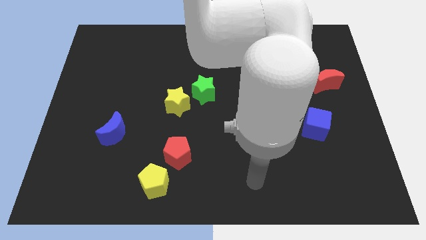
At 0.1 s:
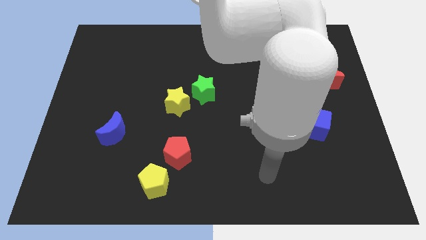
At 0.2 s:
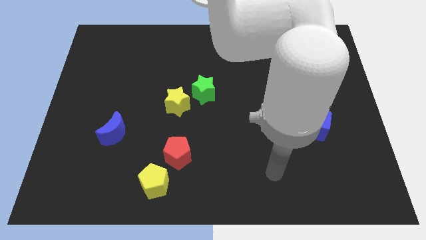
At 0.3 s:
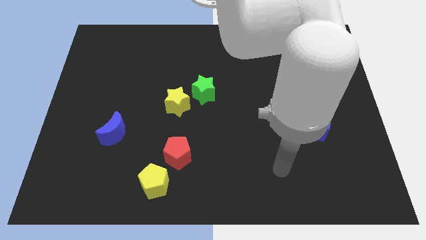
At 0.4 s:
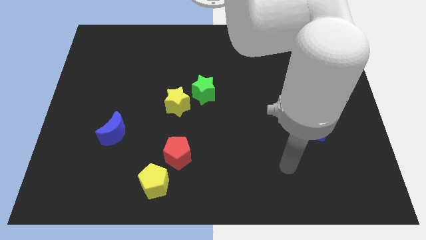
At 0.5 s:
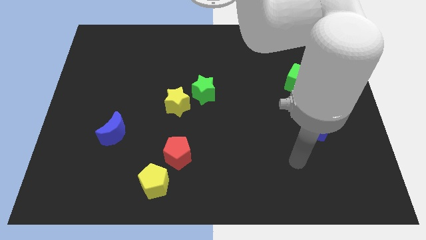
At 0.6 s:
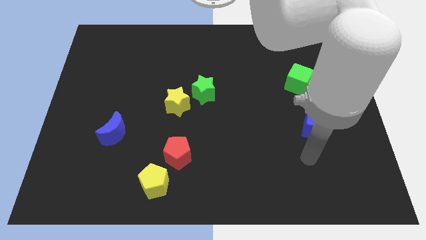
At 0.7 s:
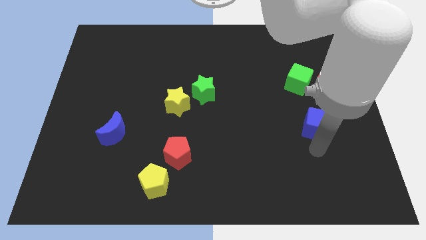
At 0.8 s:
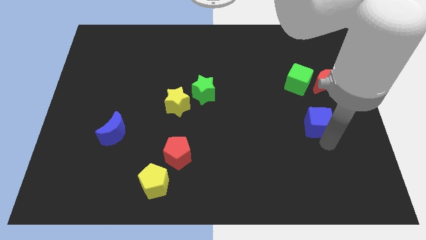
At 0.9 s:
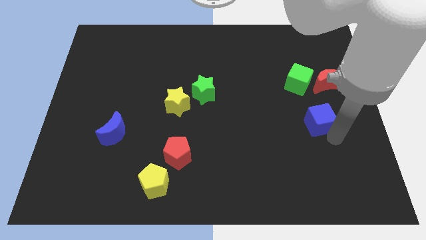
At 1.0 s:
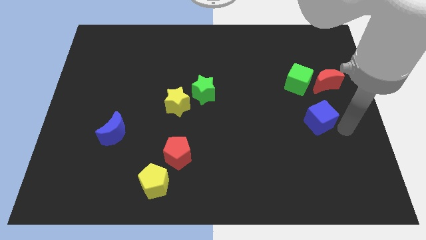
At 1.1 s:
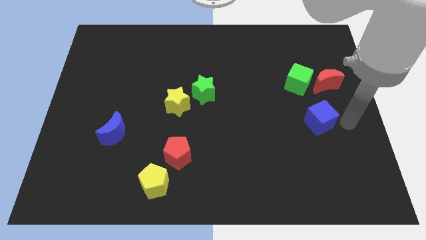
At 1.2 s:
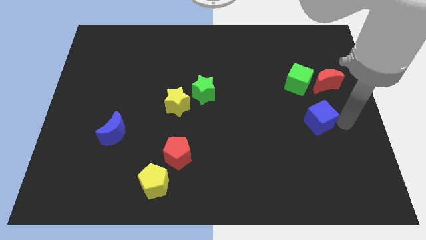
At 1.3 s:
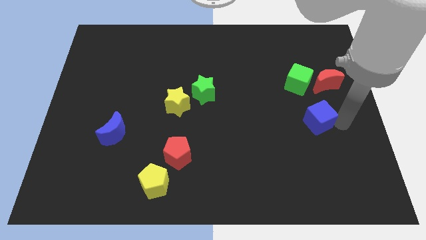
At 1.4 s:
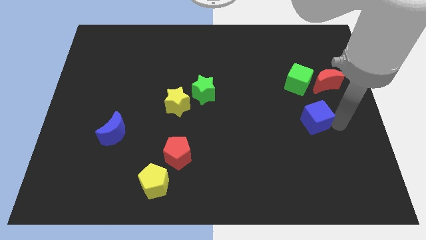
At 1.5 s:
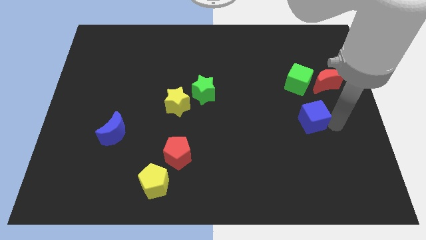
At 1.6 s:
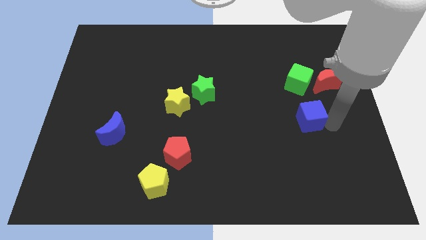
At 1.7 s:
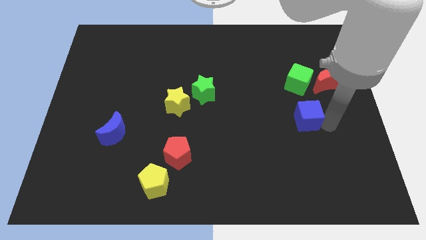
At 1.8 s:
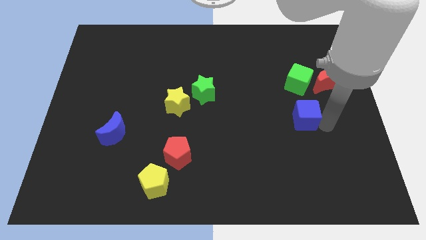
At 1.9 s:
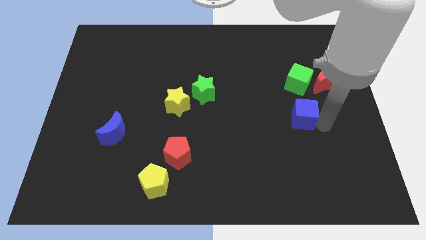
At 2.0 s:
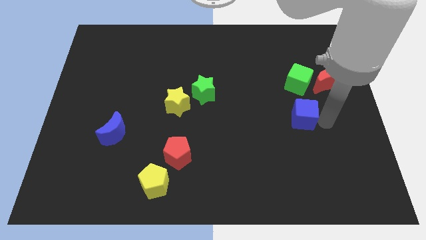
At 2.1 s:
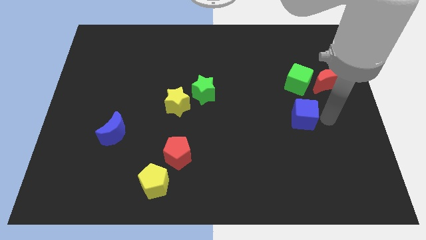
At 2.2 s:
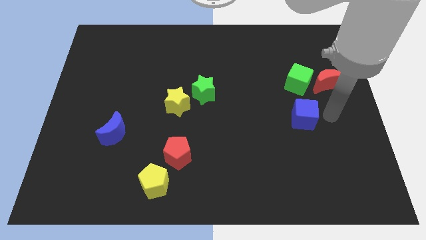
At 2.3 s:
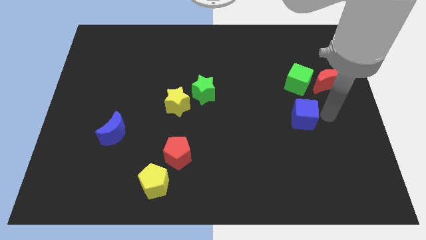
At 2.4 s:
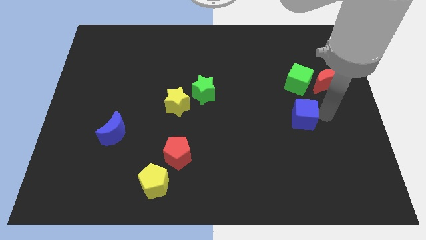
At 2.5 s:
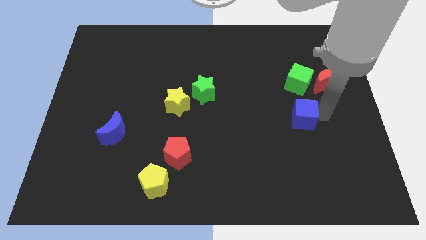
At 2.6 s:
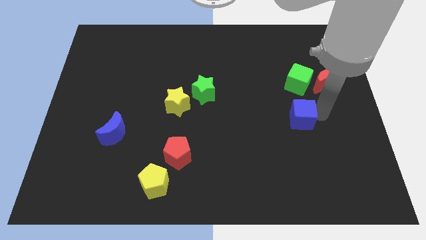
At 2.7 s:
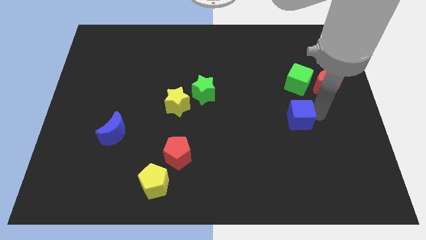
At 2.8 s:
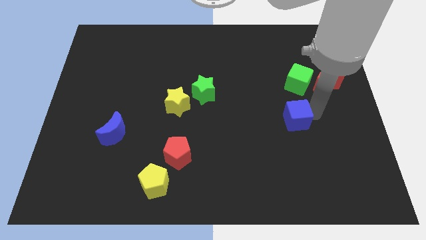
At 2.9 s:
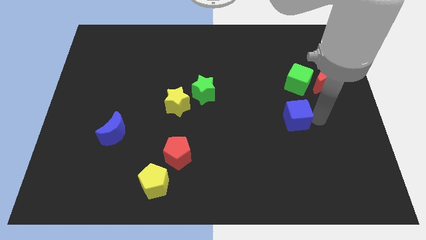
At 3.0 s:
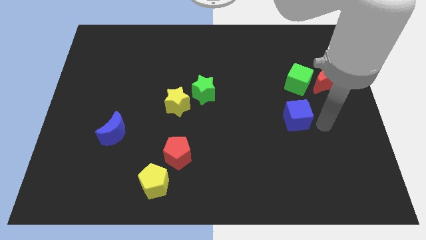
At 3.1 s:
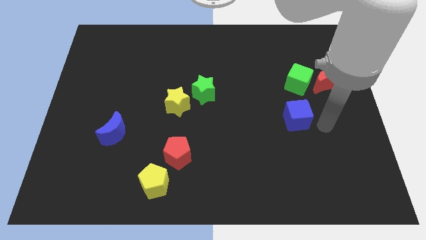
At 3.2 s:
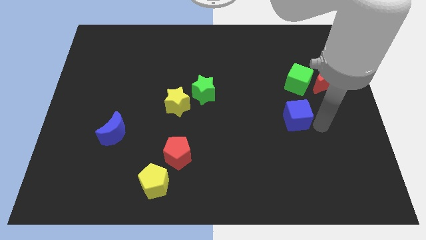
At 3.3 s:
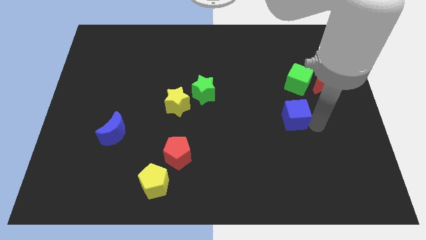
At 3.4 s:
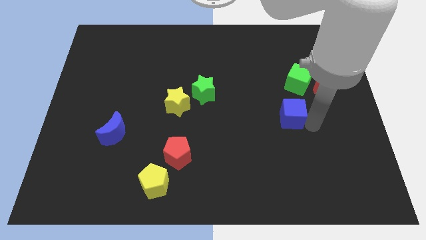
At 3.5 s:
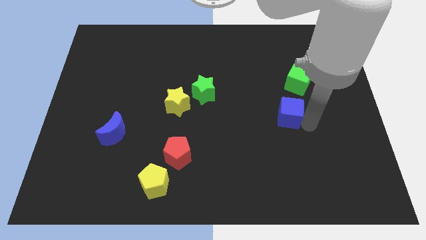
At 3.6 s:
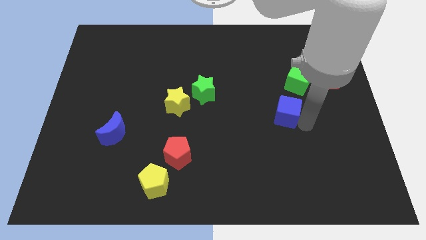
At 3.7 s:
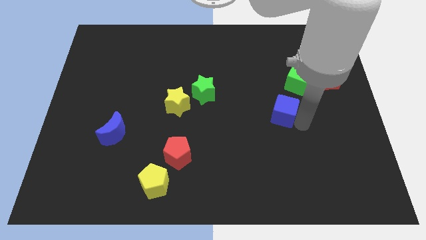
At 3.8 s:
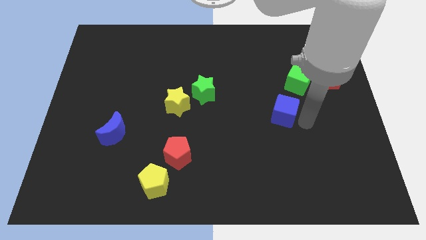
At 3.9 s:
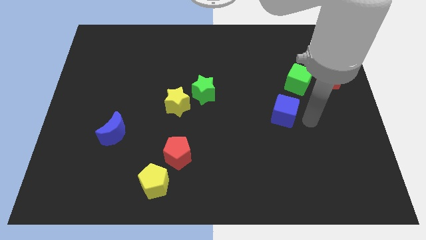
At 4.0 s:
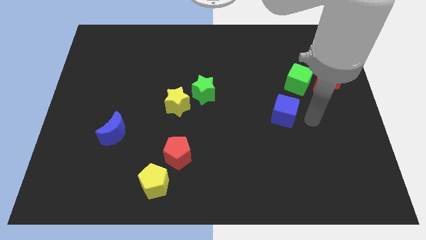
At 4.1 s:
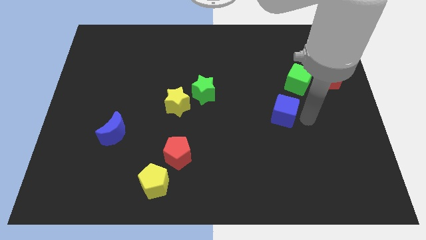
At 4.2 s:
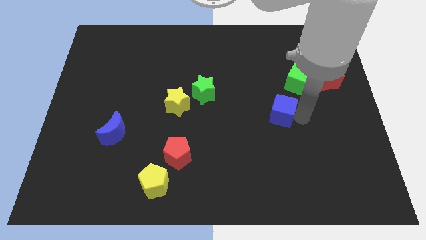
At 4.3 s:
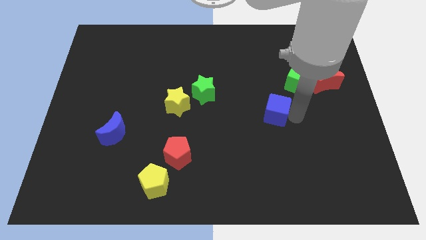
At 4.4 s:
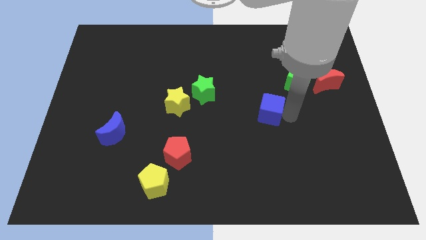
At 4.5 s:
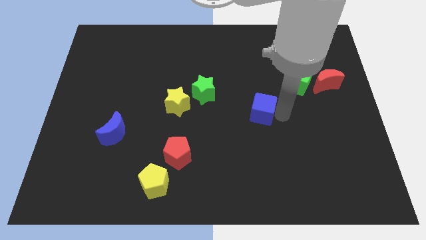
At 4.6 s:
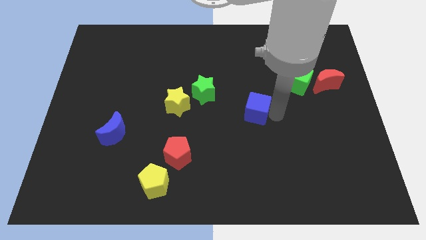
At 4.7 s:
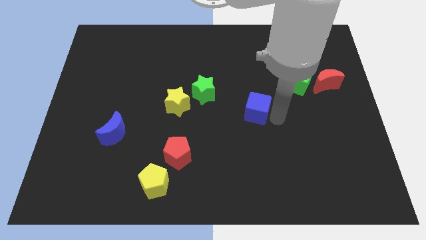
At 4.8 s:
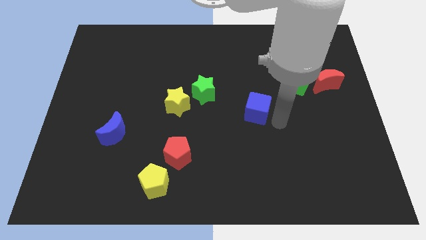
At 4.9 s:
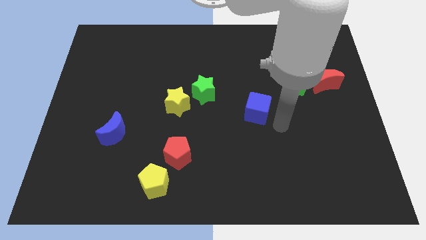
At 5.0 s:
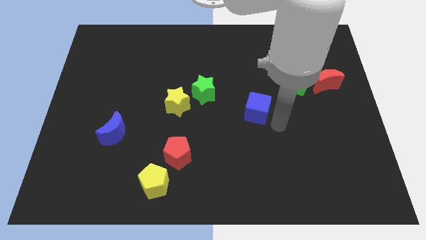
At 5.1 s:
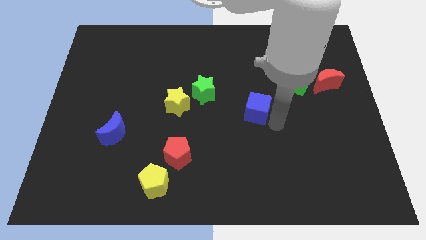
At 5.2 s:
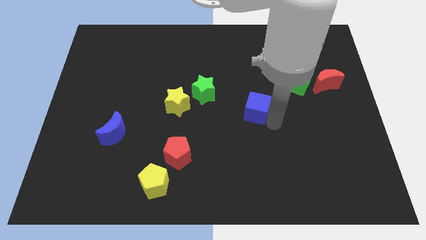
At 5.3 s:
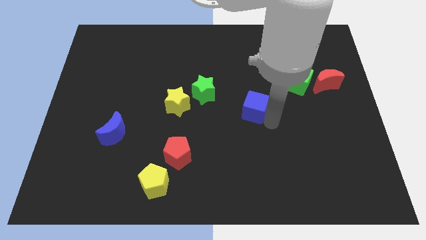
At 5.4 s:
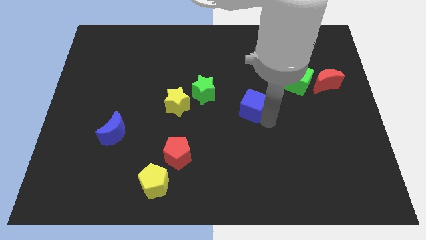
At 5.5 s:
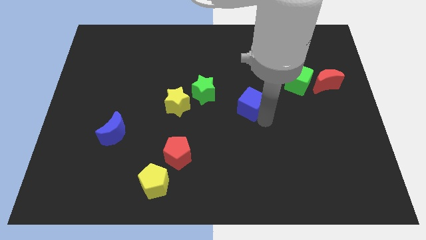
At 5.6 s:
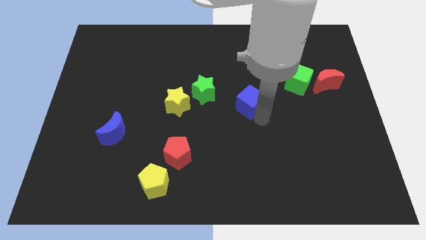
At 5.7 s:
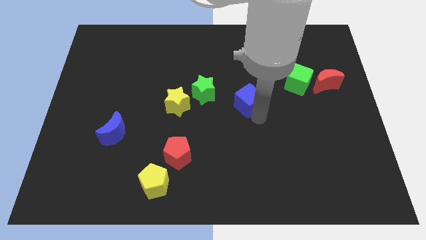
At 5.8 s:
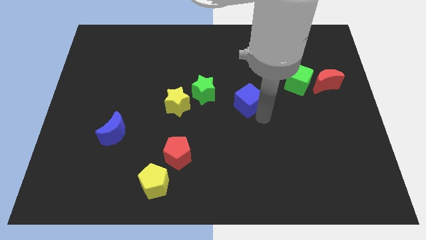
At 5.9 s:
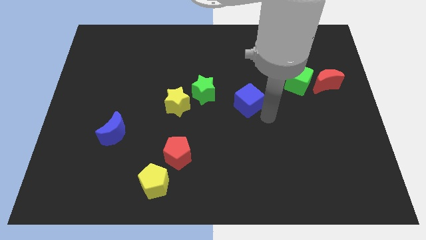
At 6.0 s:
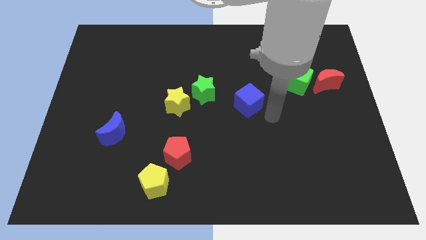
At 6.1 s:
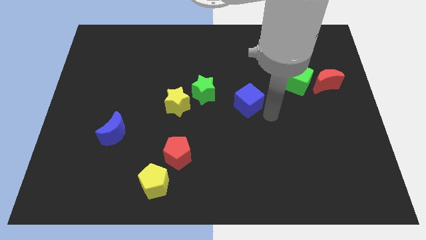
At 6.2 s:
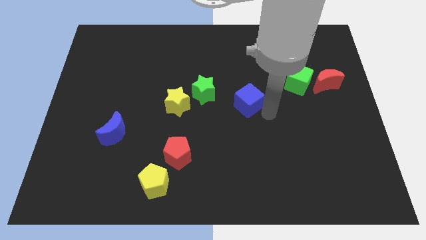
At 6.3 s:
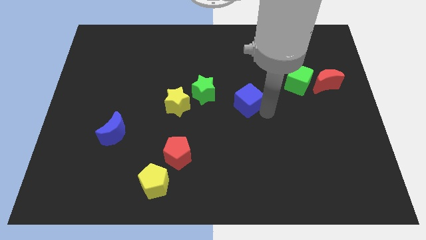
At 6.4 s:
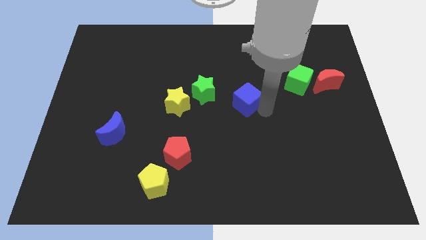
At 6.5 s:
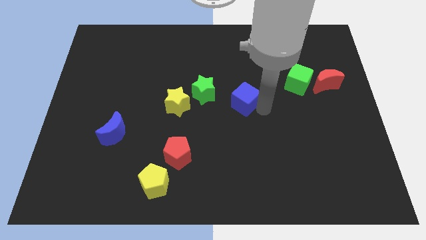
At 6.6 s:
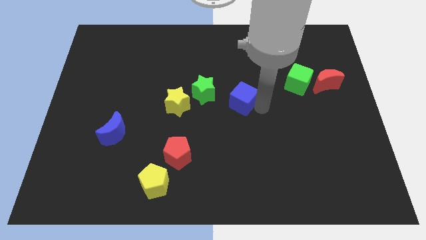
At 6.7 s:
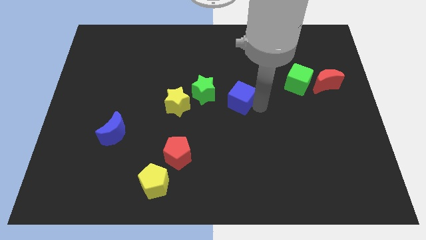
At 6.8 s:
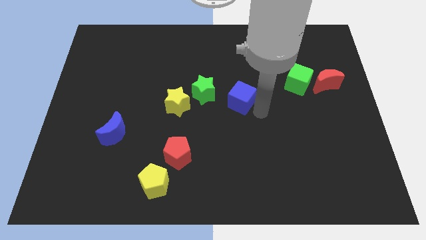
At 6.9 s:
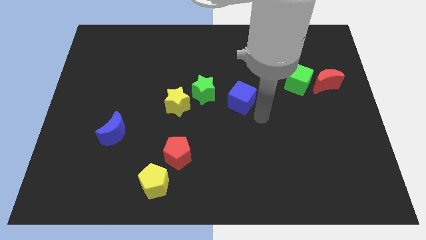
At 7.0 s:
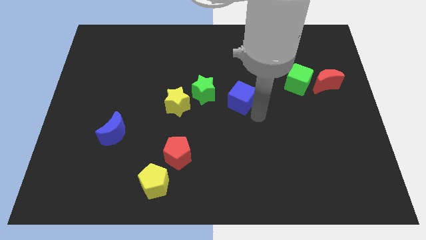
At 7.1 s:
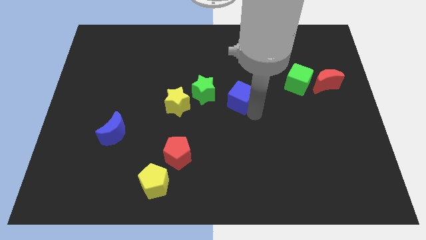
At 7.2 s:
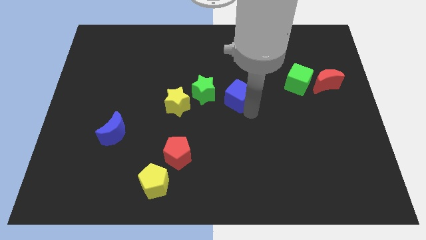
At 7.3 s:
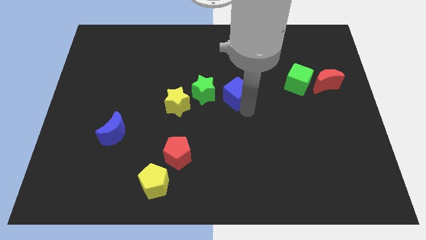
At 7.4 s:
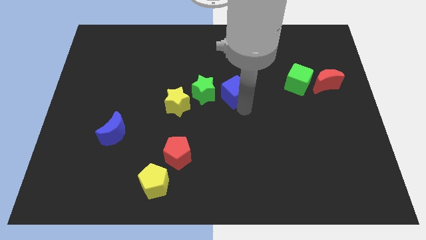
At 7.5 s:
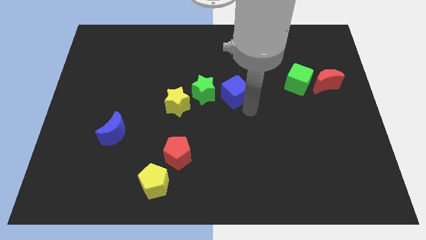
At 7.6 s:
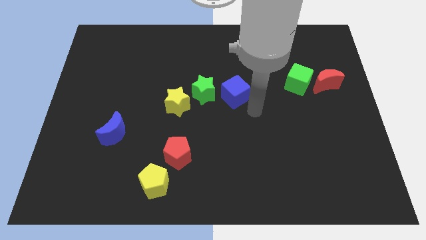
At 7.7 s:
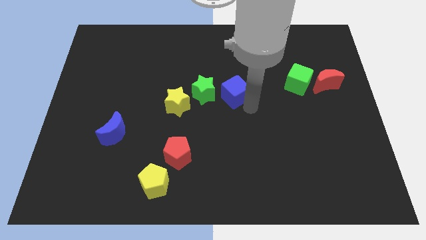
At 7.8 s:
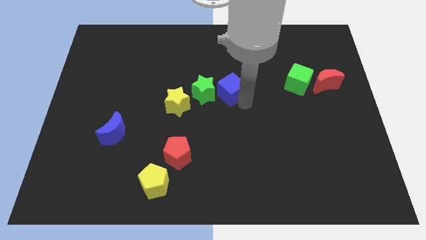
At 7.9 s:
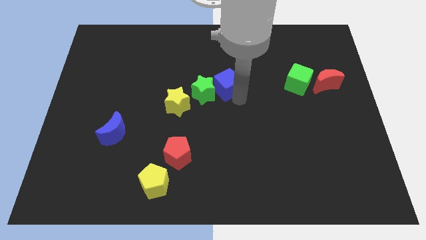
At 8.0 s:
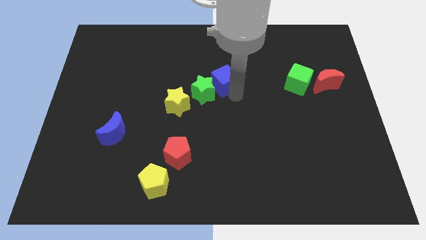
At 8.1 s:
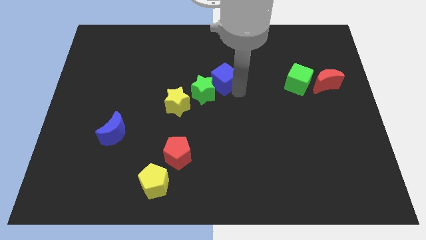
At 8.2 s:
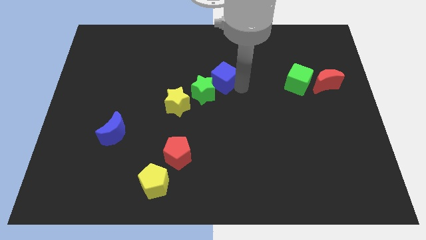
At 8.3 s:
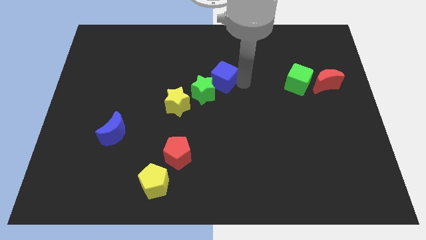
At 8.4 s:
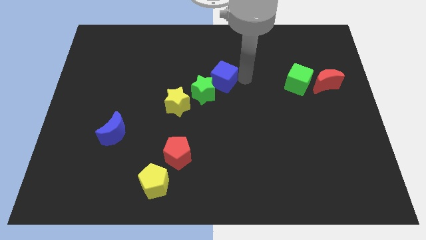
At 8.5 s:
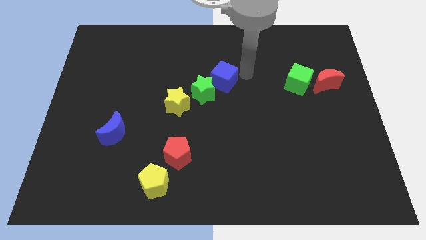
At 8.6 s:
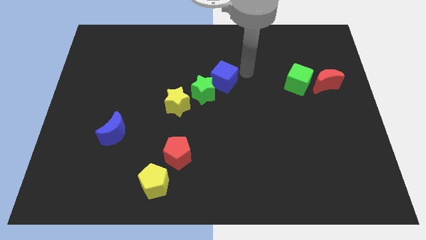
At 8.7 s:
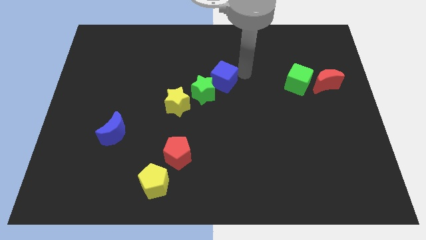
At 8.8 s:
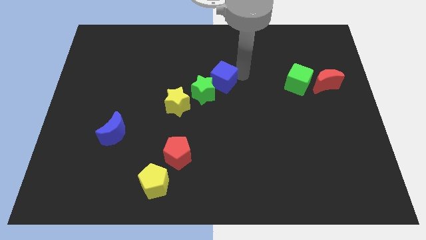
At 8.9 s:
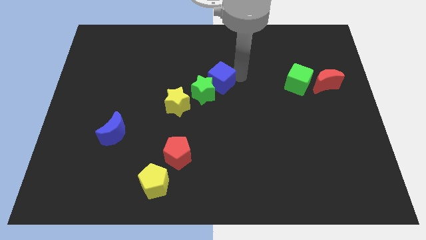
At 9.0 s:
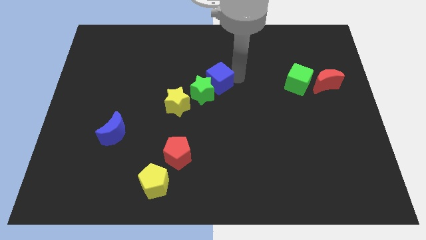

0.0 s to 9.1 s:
put the blue cube to the top right of the yellow star
